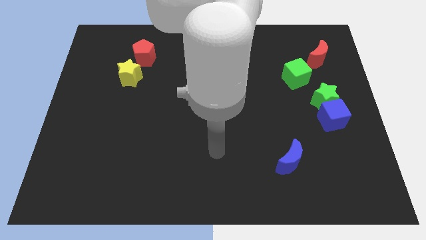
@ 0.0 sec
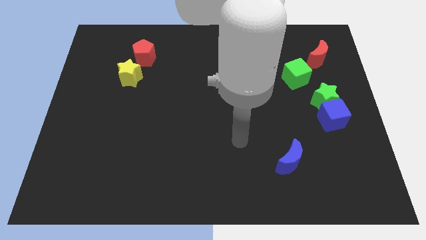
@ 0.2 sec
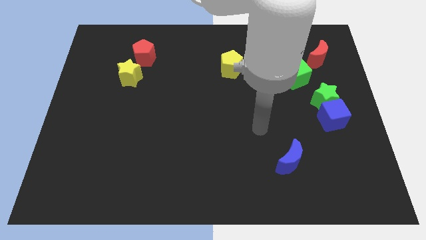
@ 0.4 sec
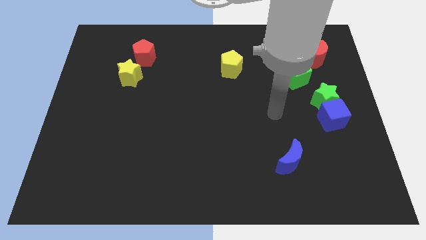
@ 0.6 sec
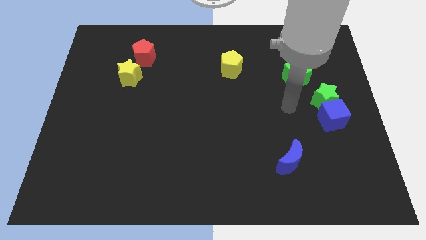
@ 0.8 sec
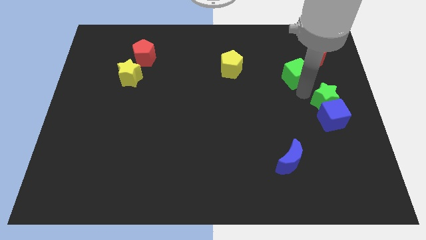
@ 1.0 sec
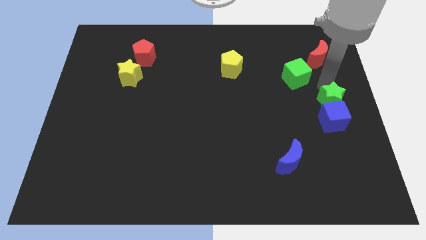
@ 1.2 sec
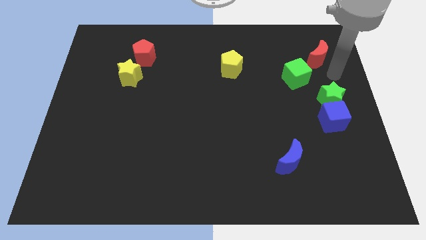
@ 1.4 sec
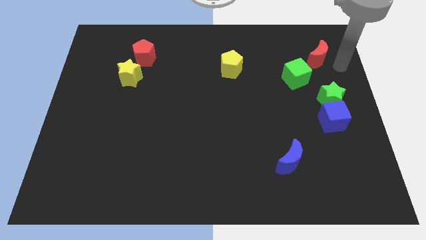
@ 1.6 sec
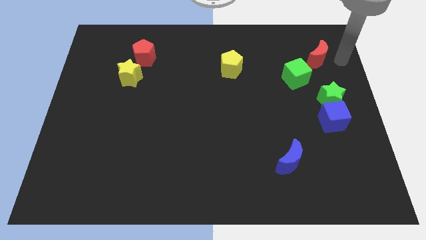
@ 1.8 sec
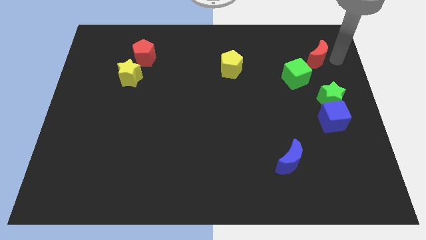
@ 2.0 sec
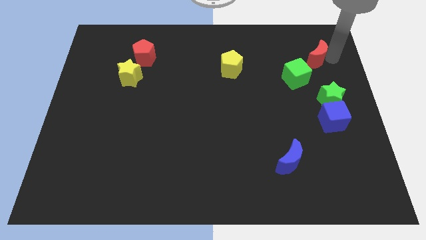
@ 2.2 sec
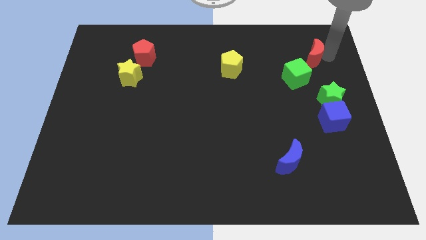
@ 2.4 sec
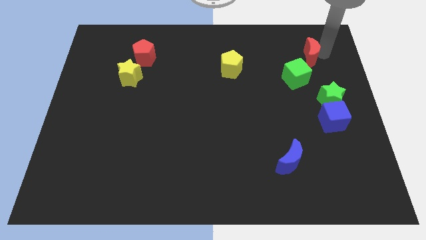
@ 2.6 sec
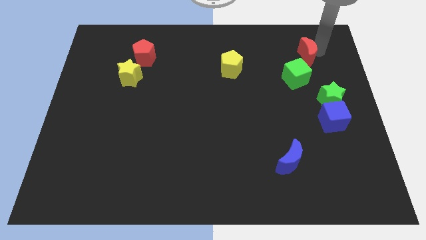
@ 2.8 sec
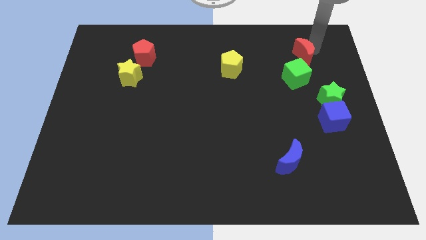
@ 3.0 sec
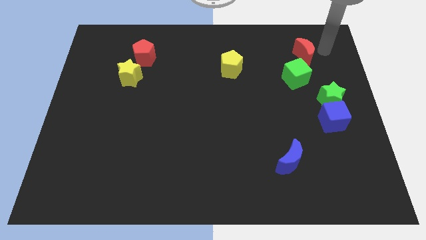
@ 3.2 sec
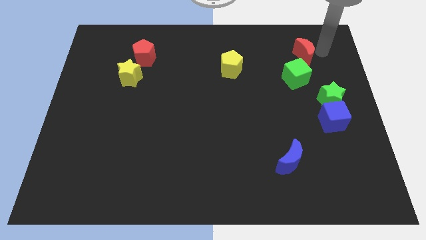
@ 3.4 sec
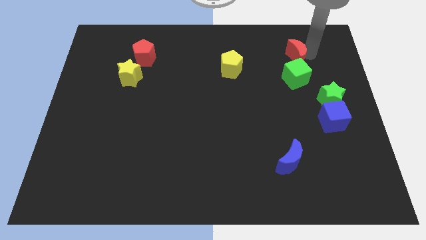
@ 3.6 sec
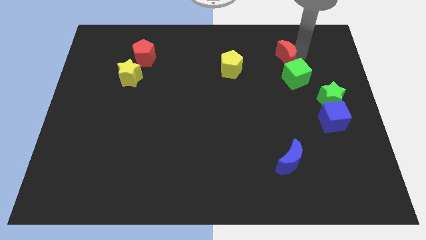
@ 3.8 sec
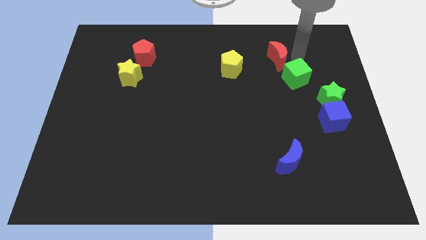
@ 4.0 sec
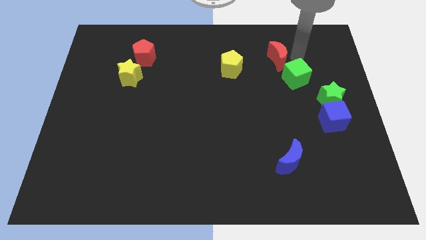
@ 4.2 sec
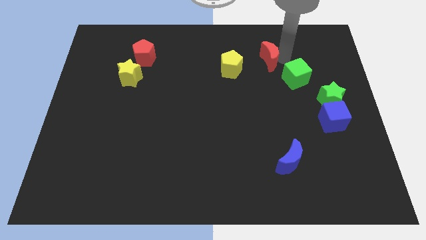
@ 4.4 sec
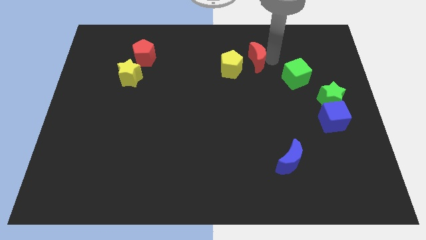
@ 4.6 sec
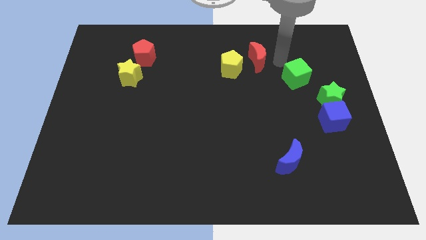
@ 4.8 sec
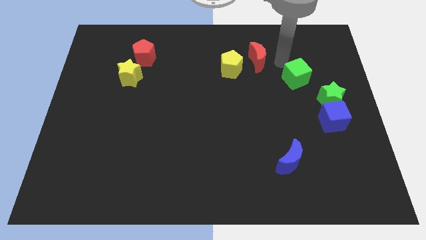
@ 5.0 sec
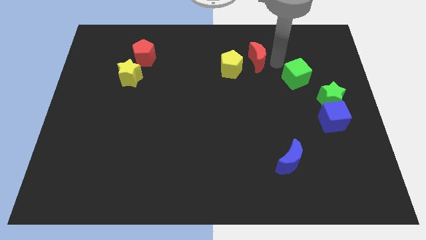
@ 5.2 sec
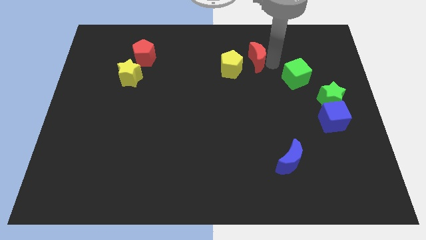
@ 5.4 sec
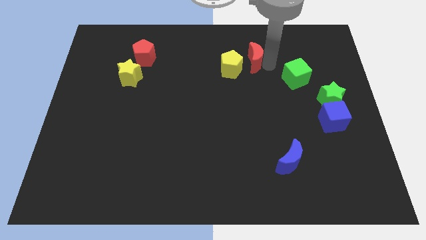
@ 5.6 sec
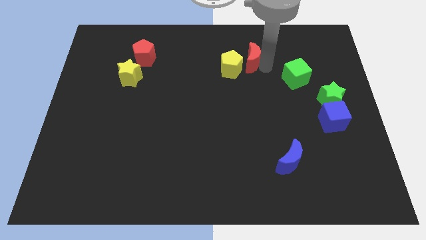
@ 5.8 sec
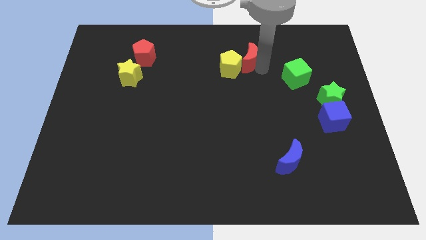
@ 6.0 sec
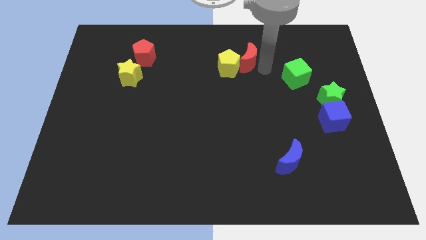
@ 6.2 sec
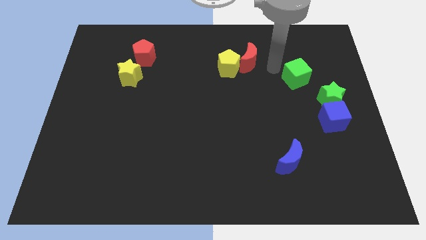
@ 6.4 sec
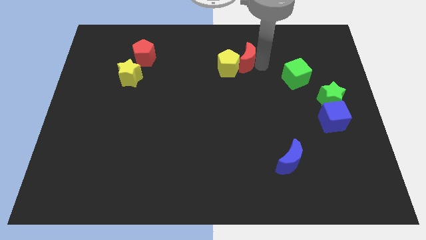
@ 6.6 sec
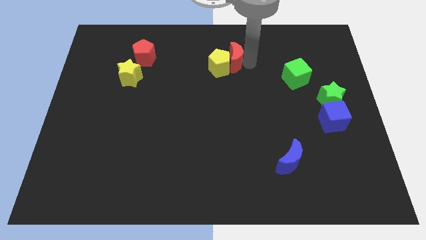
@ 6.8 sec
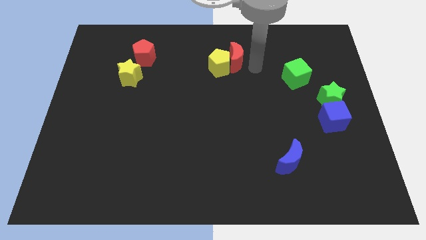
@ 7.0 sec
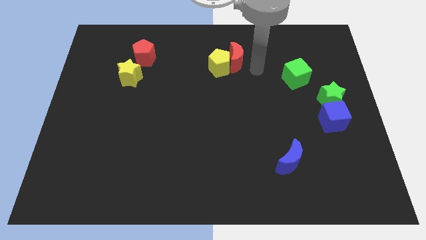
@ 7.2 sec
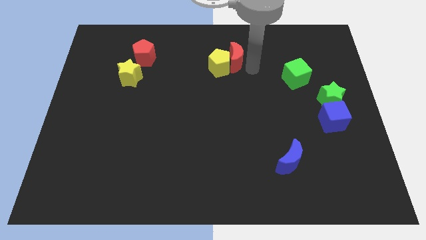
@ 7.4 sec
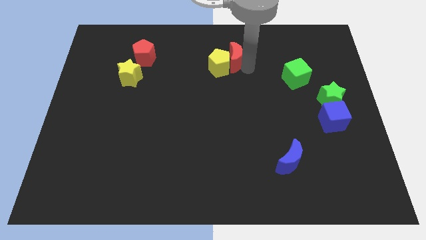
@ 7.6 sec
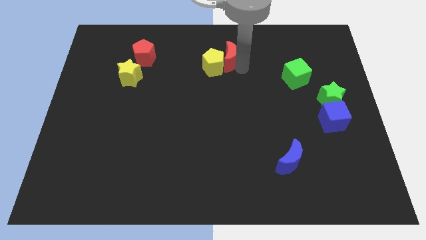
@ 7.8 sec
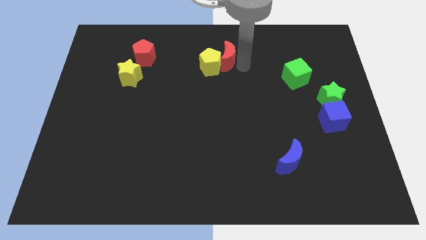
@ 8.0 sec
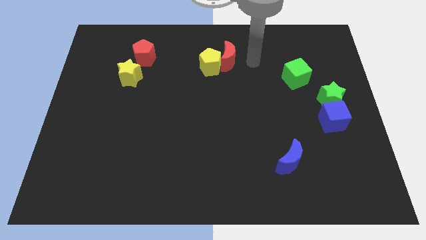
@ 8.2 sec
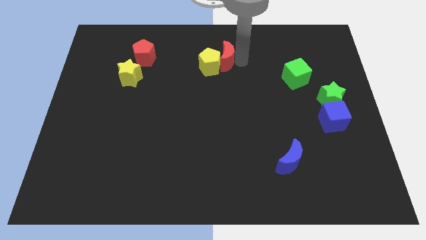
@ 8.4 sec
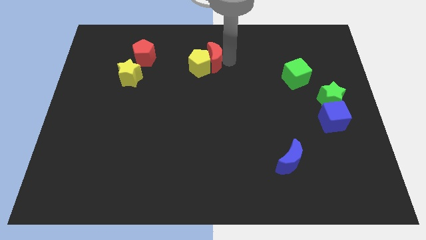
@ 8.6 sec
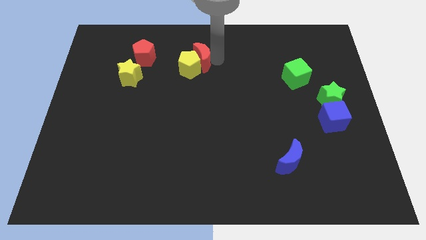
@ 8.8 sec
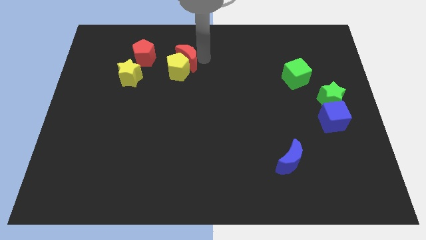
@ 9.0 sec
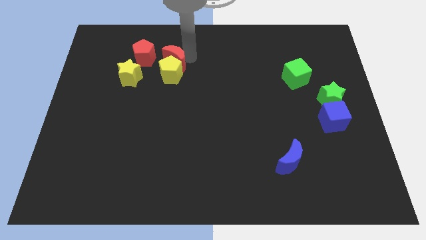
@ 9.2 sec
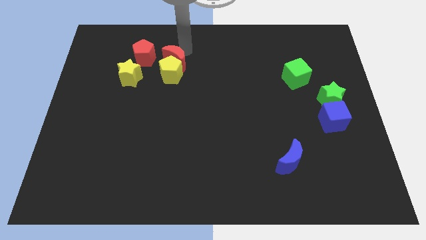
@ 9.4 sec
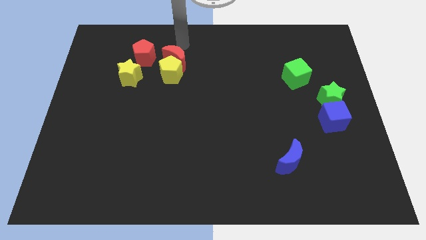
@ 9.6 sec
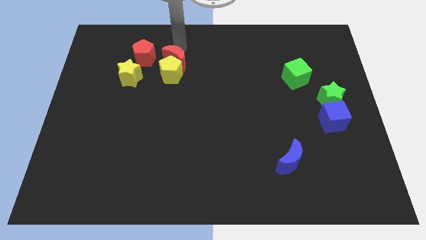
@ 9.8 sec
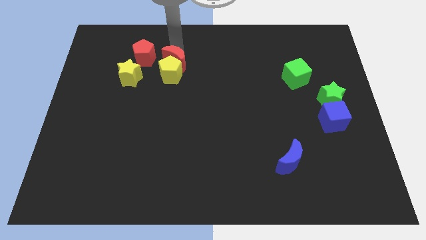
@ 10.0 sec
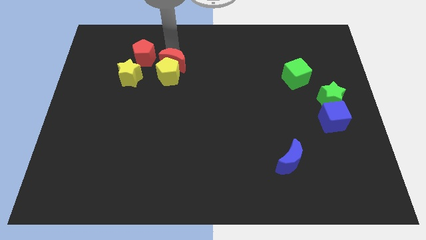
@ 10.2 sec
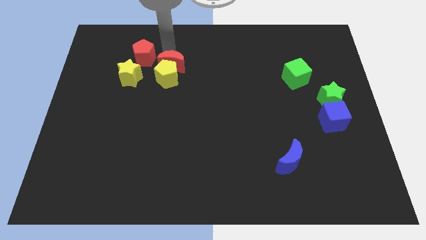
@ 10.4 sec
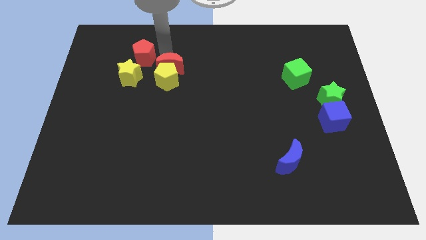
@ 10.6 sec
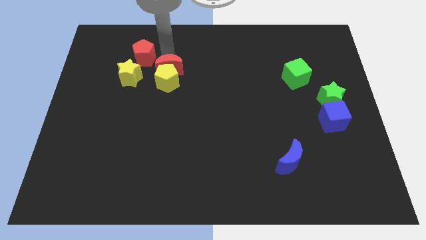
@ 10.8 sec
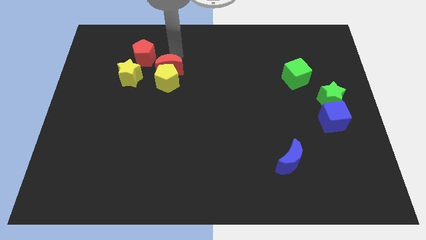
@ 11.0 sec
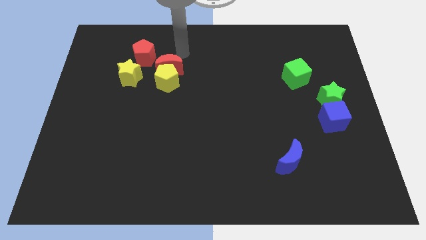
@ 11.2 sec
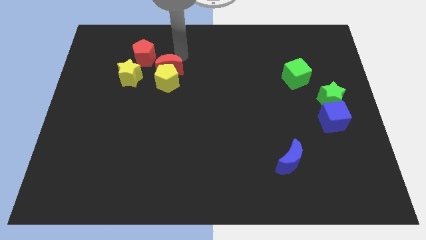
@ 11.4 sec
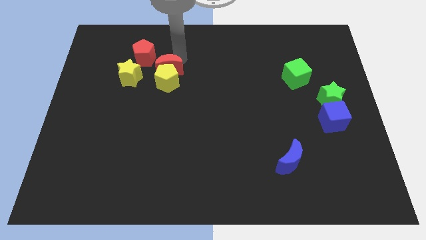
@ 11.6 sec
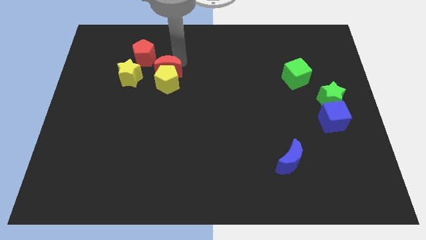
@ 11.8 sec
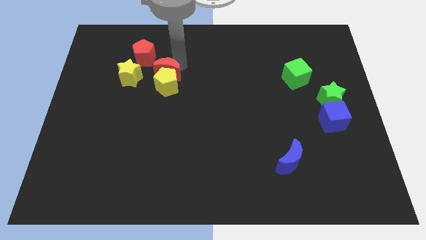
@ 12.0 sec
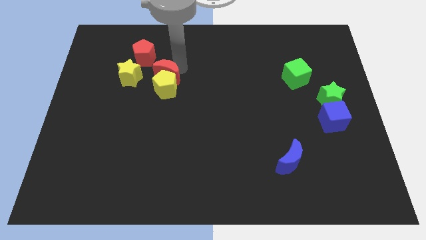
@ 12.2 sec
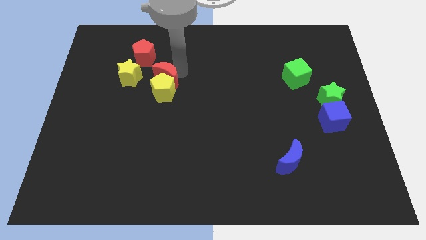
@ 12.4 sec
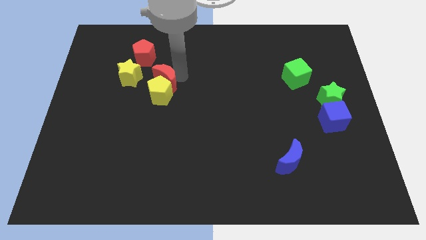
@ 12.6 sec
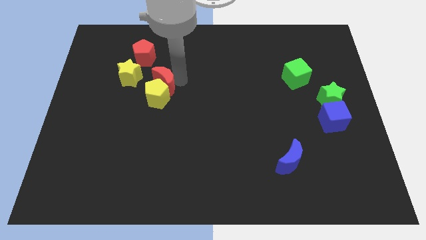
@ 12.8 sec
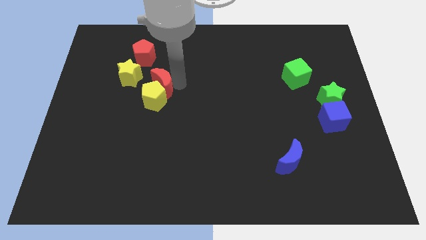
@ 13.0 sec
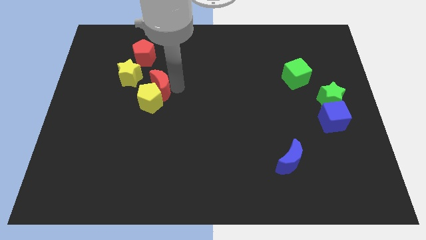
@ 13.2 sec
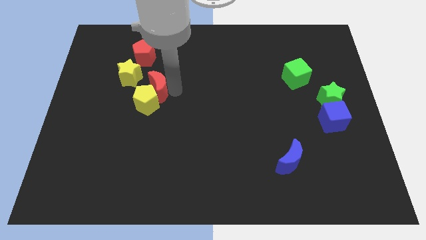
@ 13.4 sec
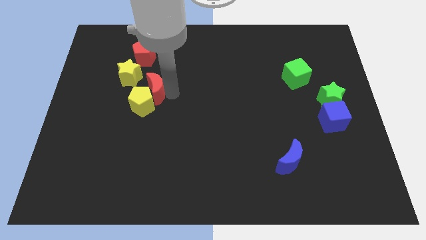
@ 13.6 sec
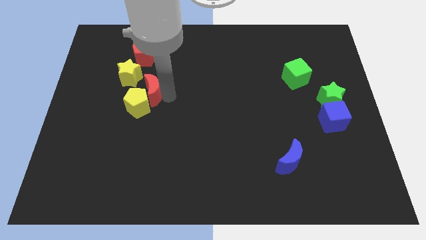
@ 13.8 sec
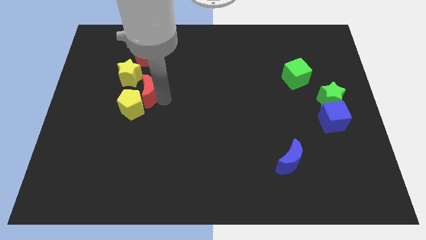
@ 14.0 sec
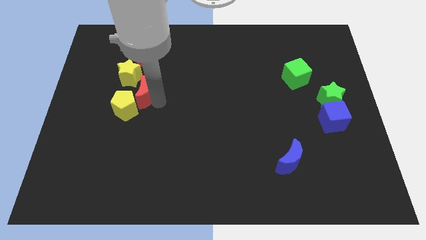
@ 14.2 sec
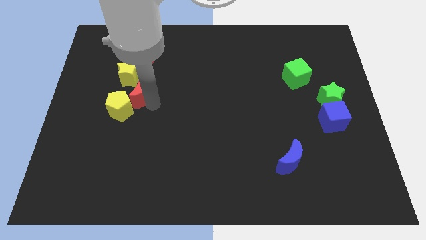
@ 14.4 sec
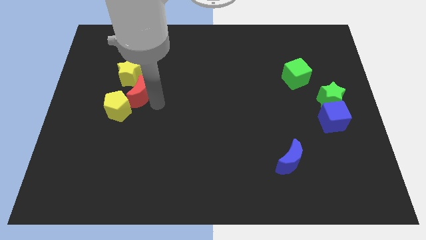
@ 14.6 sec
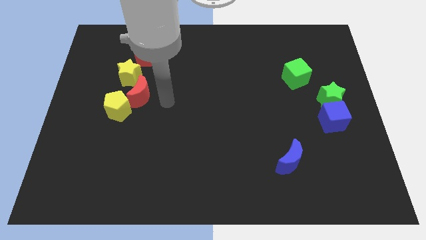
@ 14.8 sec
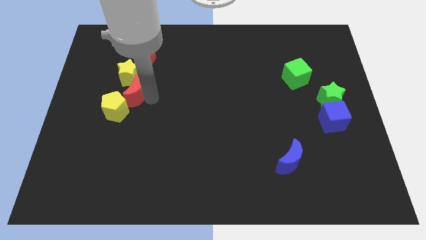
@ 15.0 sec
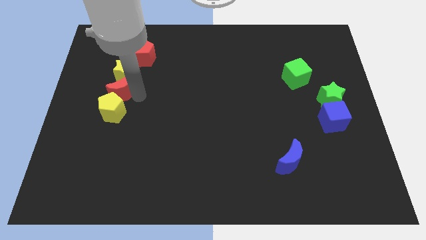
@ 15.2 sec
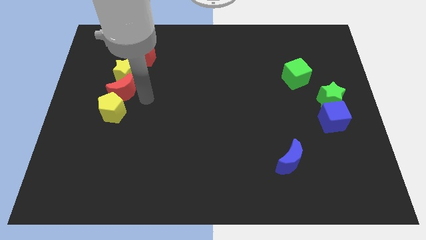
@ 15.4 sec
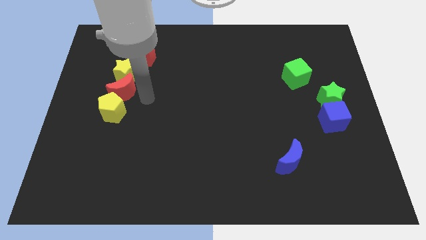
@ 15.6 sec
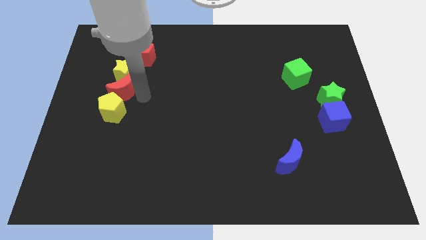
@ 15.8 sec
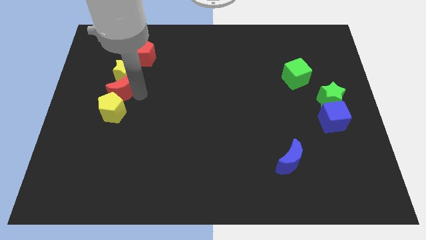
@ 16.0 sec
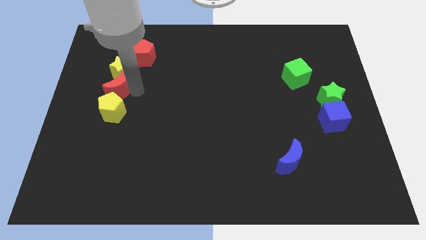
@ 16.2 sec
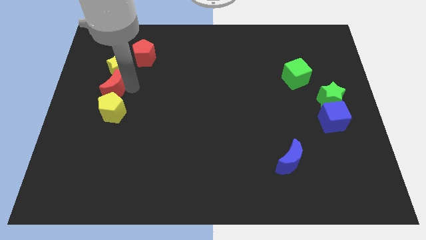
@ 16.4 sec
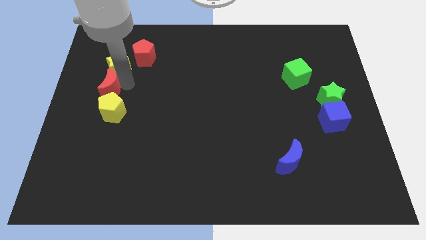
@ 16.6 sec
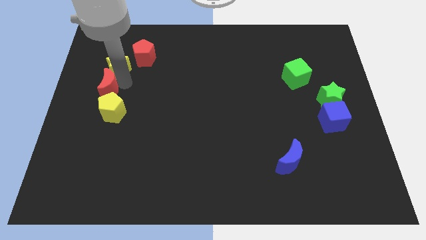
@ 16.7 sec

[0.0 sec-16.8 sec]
put the red moon to the left side
